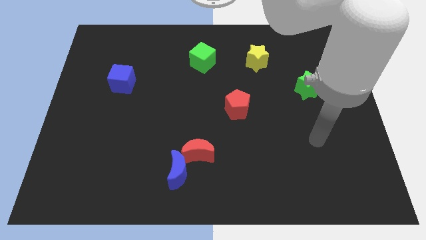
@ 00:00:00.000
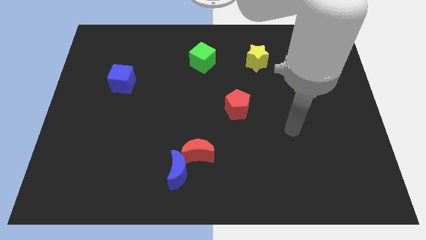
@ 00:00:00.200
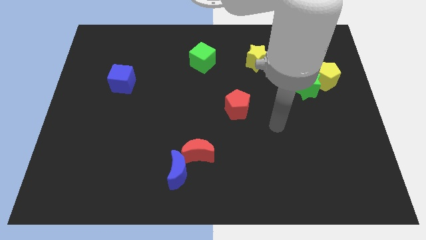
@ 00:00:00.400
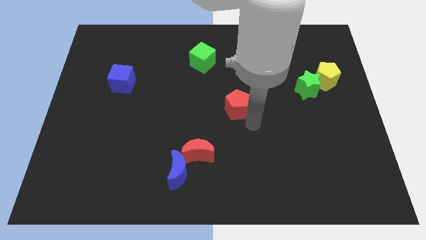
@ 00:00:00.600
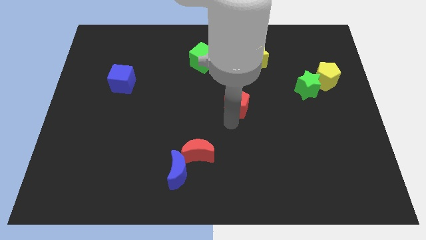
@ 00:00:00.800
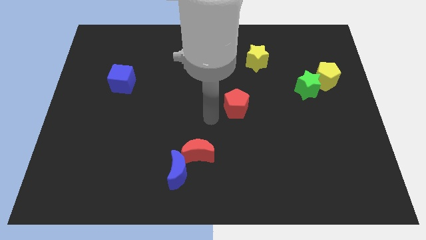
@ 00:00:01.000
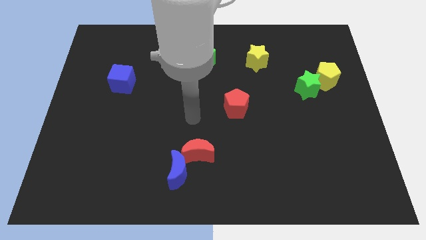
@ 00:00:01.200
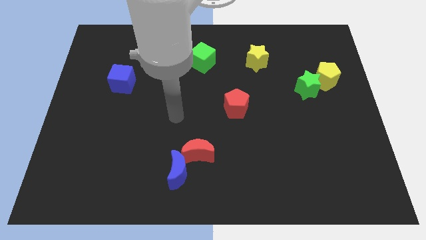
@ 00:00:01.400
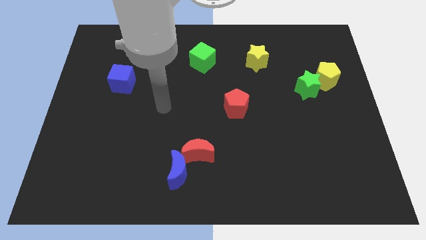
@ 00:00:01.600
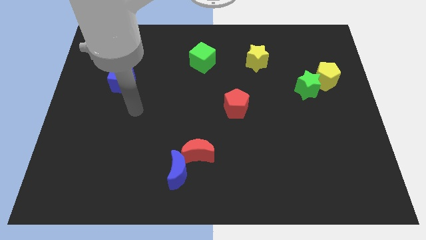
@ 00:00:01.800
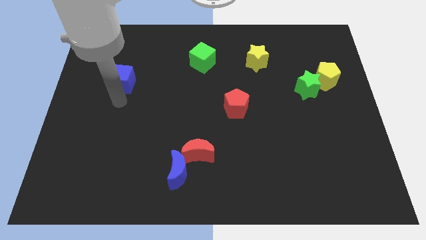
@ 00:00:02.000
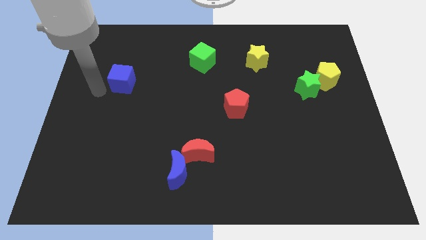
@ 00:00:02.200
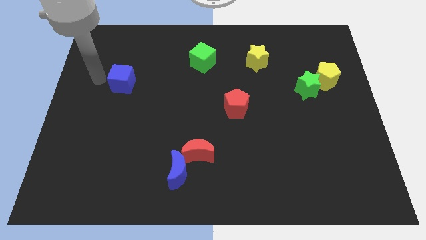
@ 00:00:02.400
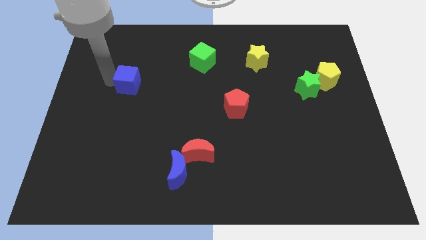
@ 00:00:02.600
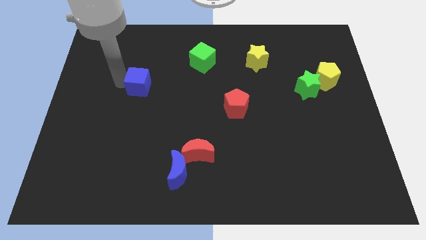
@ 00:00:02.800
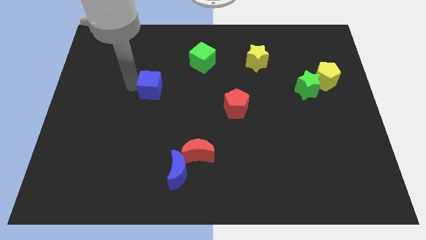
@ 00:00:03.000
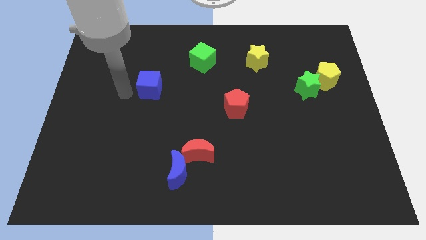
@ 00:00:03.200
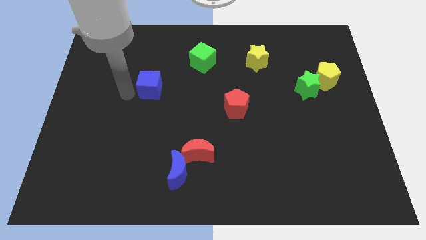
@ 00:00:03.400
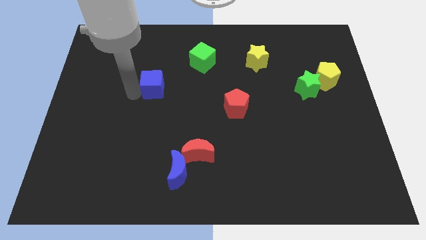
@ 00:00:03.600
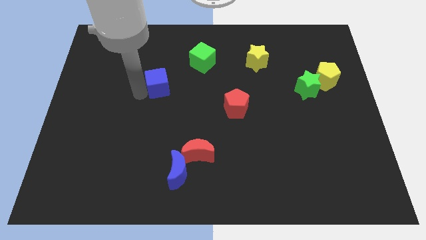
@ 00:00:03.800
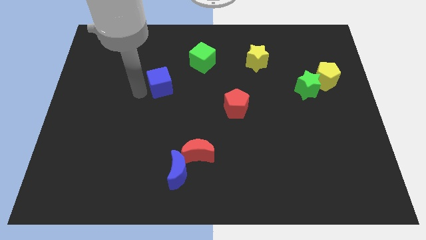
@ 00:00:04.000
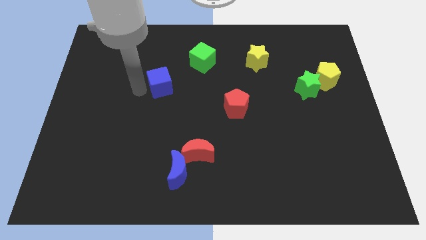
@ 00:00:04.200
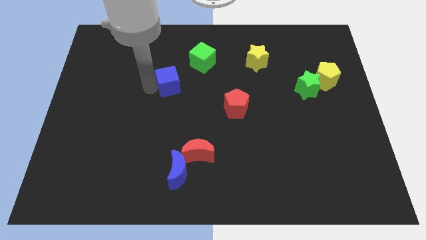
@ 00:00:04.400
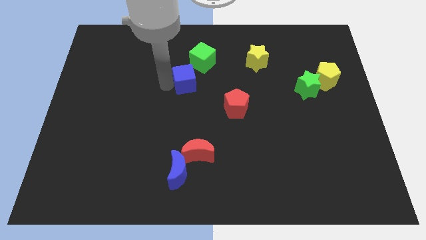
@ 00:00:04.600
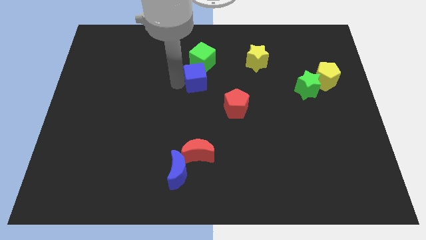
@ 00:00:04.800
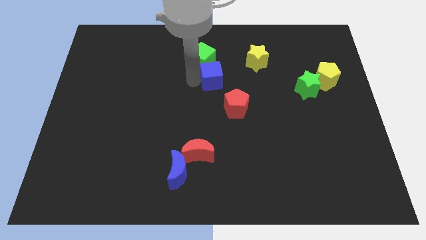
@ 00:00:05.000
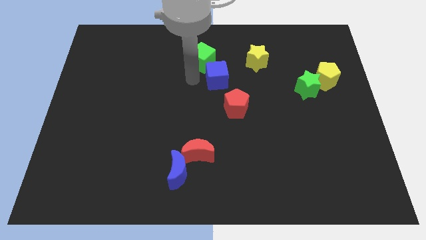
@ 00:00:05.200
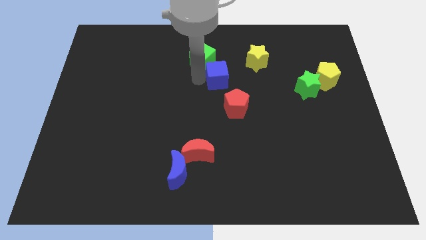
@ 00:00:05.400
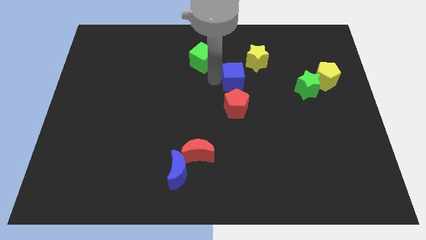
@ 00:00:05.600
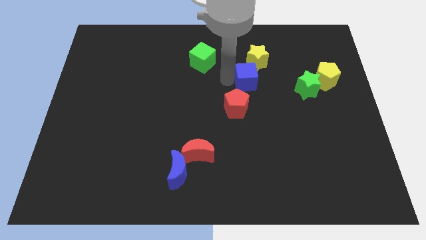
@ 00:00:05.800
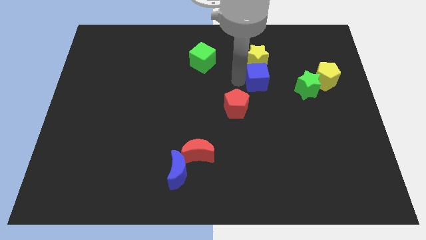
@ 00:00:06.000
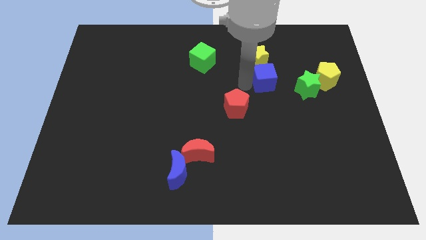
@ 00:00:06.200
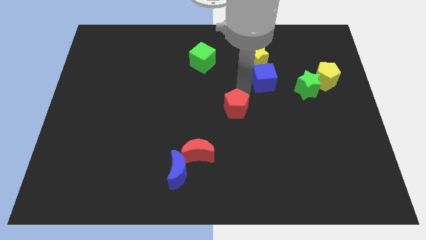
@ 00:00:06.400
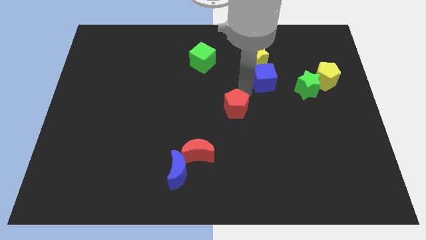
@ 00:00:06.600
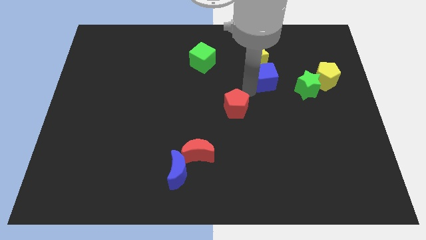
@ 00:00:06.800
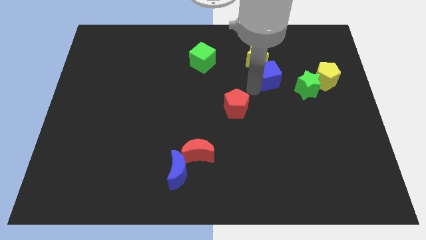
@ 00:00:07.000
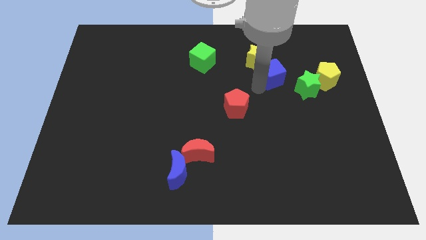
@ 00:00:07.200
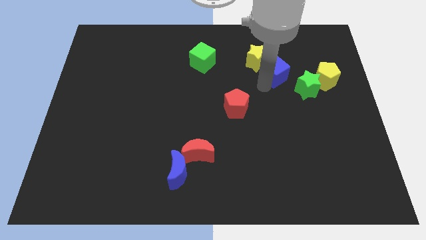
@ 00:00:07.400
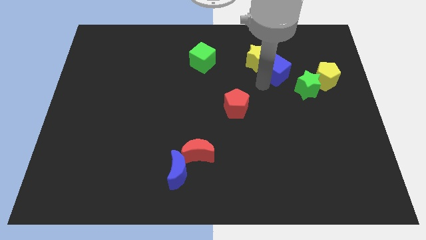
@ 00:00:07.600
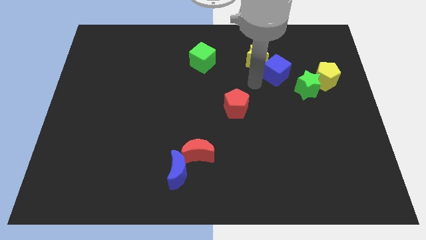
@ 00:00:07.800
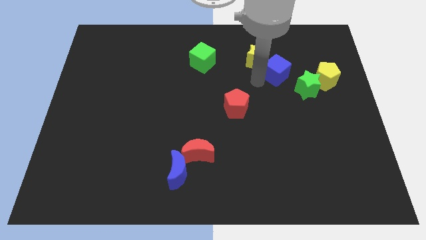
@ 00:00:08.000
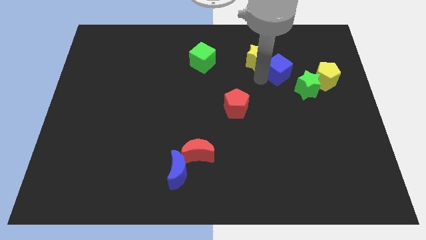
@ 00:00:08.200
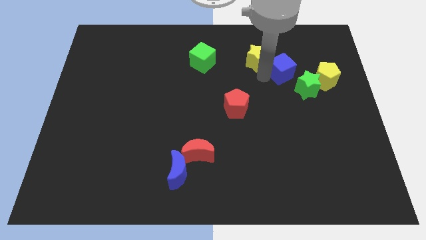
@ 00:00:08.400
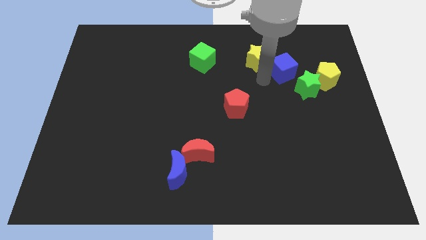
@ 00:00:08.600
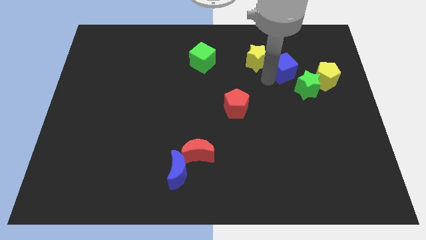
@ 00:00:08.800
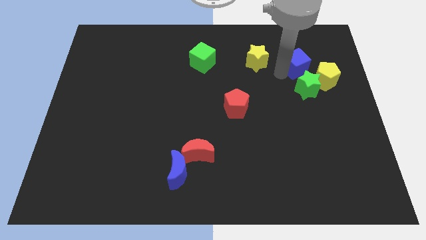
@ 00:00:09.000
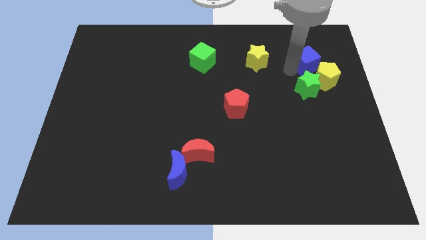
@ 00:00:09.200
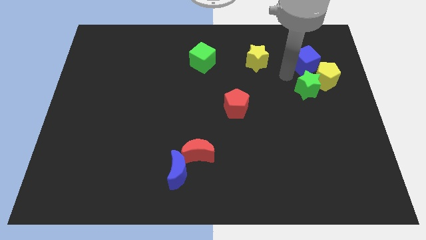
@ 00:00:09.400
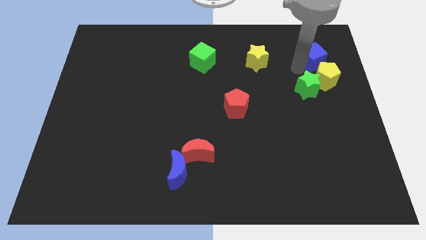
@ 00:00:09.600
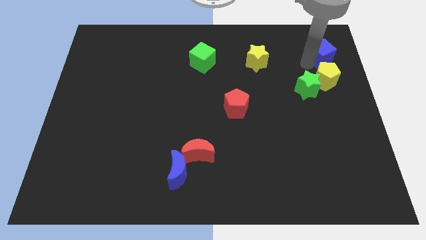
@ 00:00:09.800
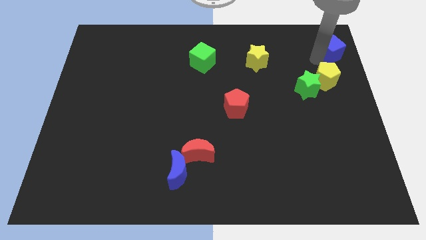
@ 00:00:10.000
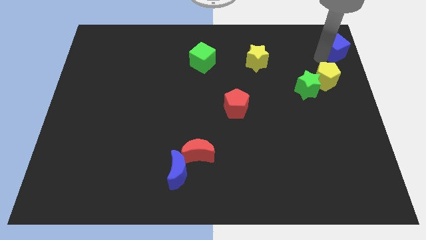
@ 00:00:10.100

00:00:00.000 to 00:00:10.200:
push the blue cube to the upper right corner

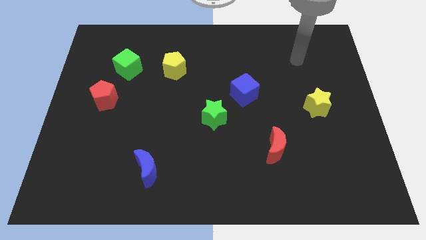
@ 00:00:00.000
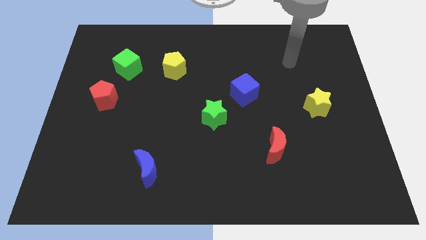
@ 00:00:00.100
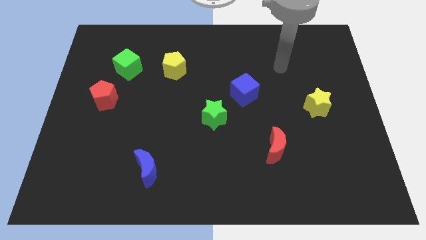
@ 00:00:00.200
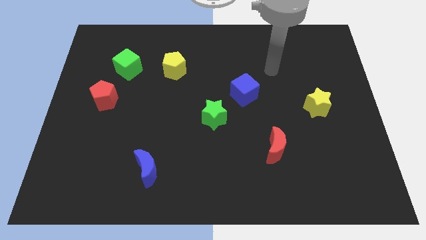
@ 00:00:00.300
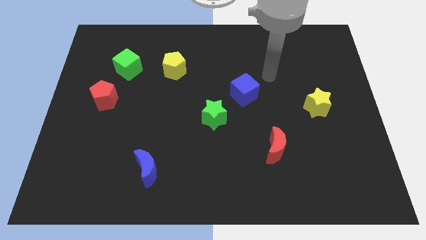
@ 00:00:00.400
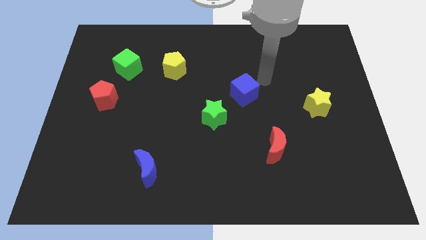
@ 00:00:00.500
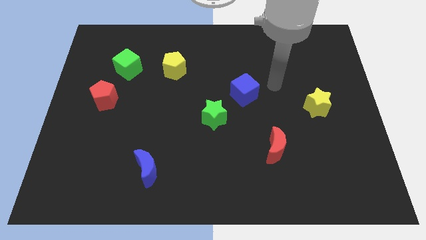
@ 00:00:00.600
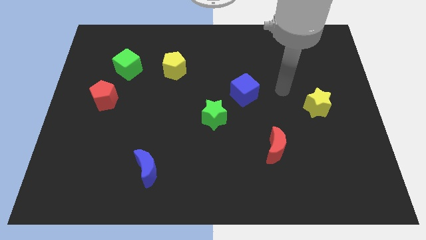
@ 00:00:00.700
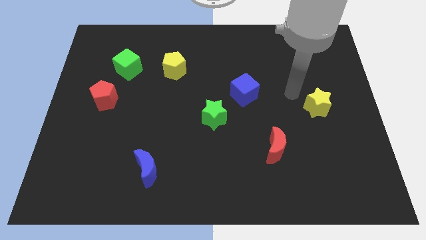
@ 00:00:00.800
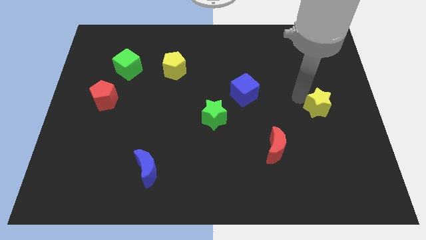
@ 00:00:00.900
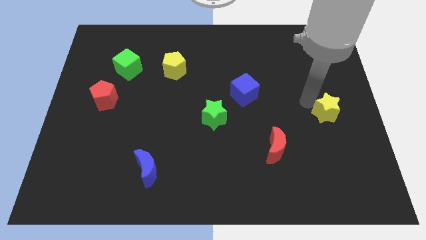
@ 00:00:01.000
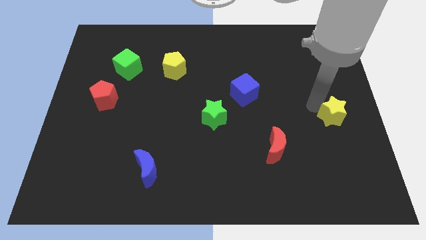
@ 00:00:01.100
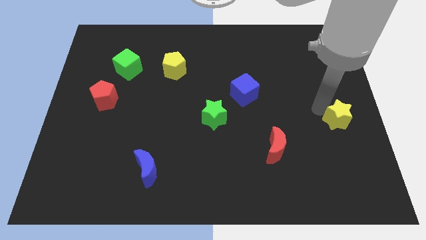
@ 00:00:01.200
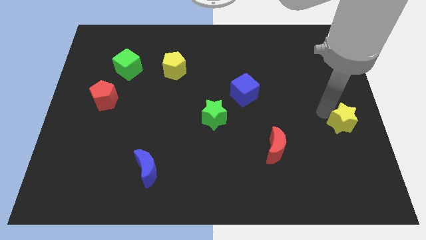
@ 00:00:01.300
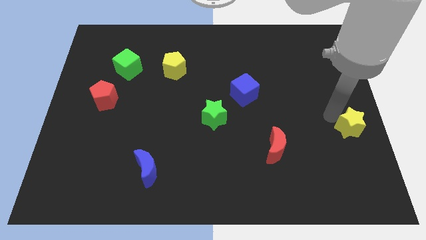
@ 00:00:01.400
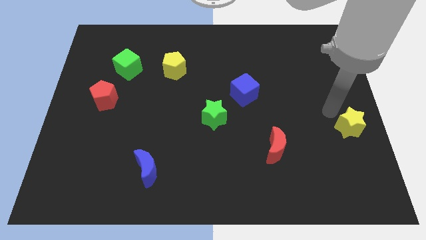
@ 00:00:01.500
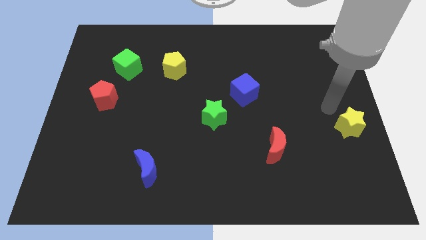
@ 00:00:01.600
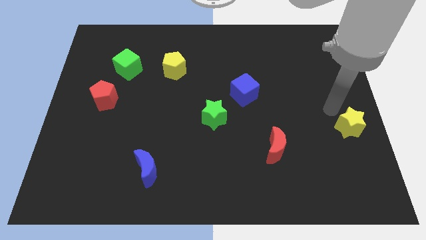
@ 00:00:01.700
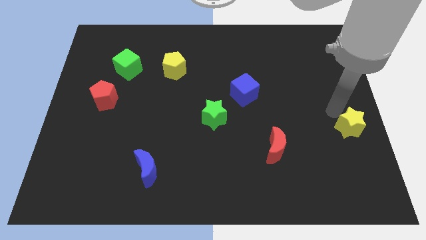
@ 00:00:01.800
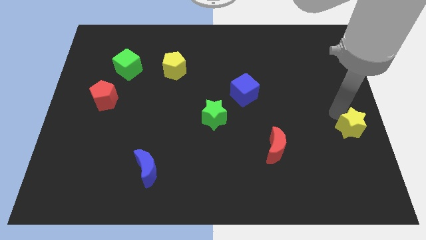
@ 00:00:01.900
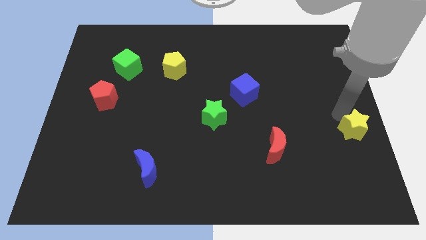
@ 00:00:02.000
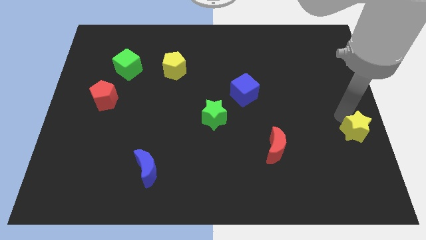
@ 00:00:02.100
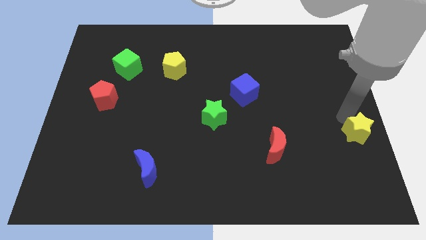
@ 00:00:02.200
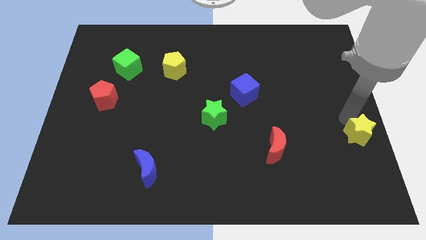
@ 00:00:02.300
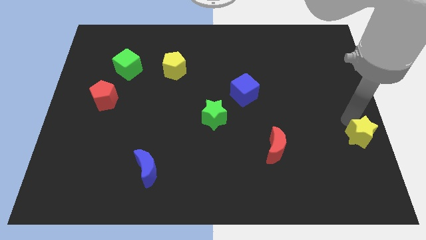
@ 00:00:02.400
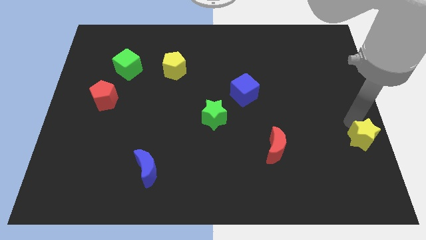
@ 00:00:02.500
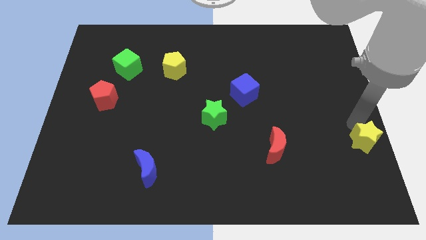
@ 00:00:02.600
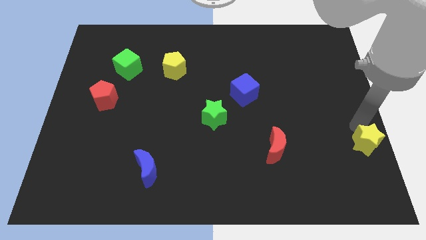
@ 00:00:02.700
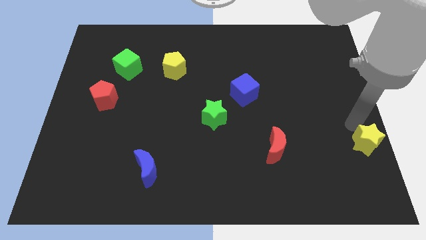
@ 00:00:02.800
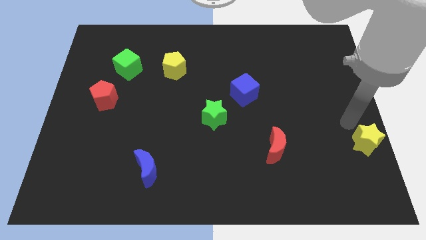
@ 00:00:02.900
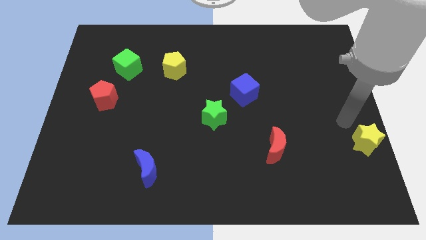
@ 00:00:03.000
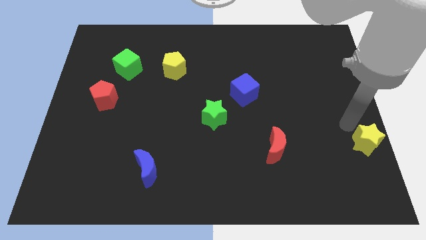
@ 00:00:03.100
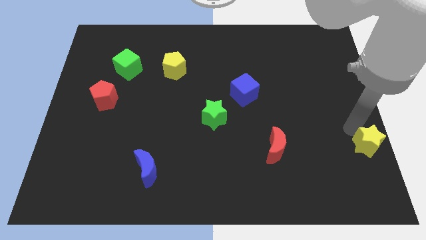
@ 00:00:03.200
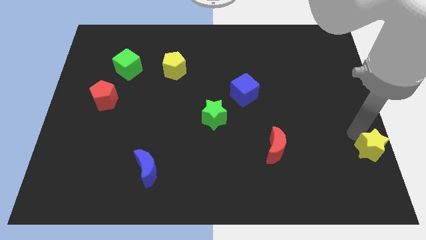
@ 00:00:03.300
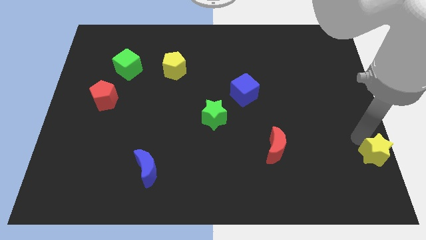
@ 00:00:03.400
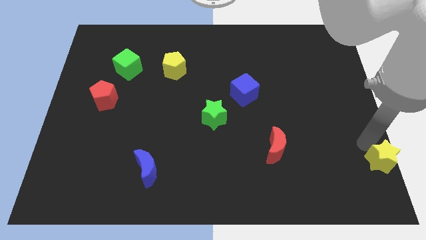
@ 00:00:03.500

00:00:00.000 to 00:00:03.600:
move the yellow star to the lower right corner
